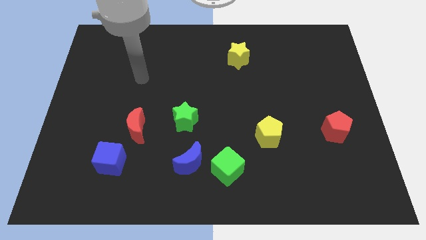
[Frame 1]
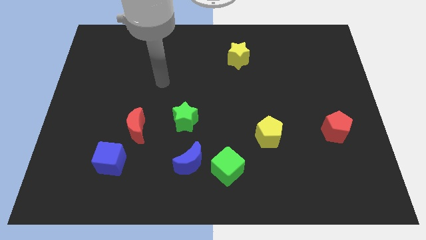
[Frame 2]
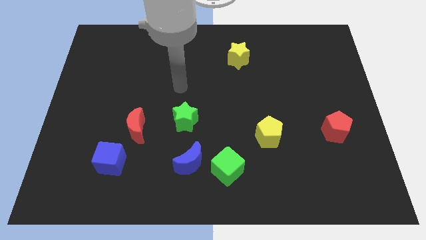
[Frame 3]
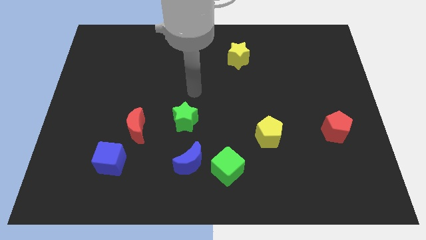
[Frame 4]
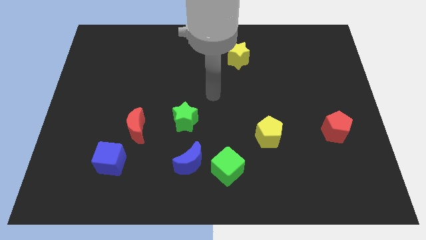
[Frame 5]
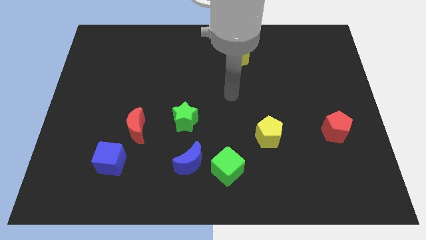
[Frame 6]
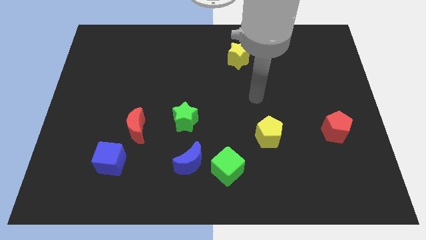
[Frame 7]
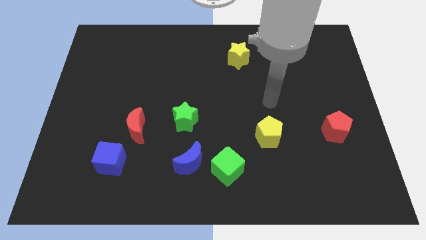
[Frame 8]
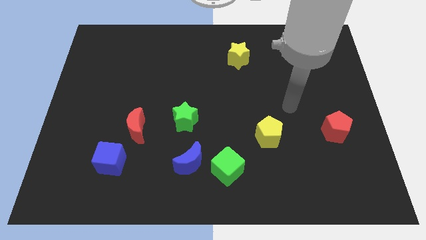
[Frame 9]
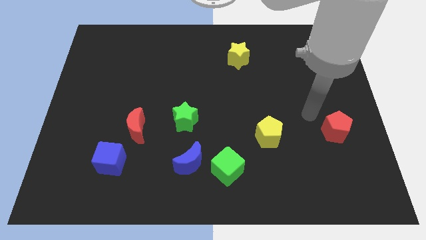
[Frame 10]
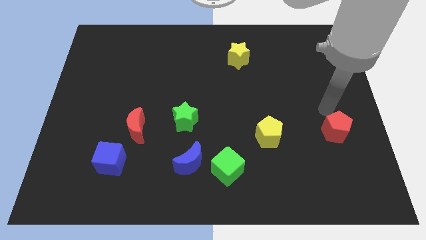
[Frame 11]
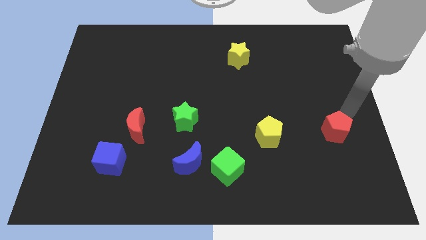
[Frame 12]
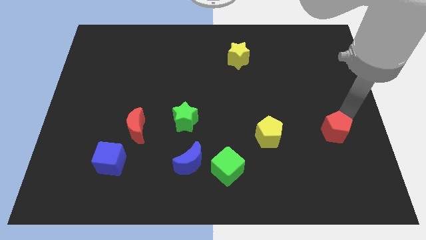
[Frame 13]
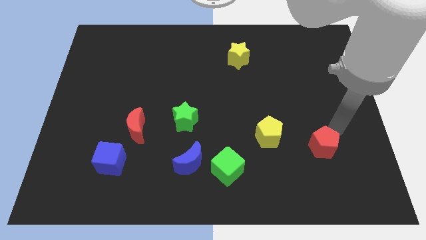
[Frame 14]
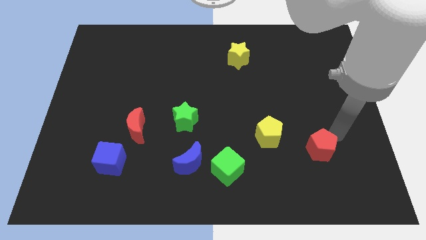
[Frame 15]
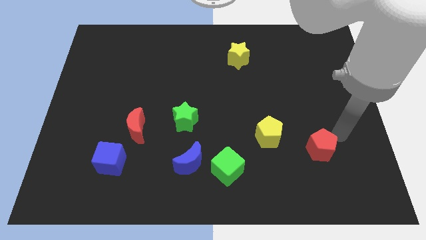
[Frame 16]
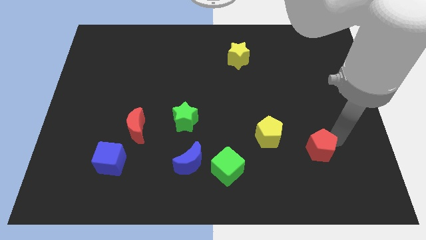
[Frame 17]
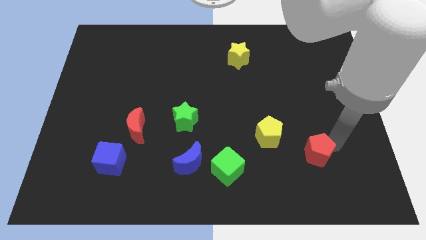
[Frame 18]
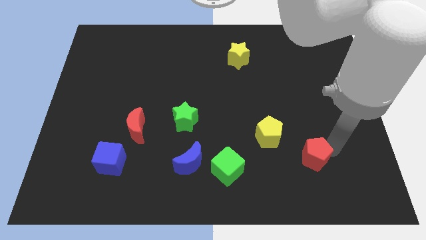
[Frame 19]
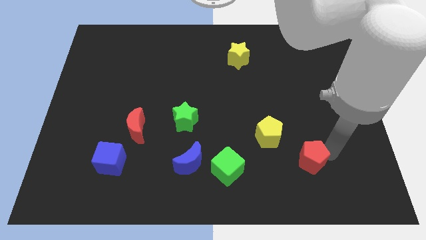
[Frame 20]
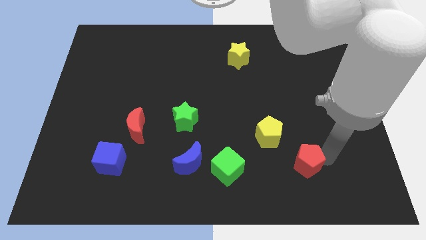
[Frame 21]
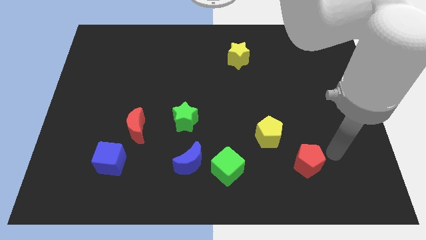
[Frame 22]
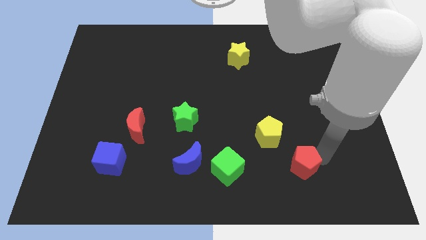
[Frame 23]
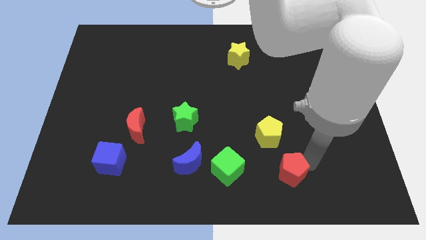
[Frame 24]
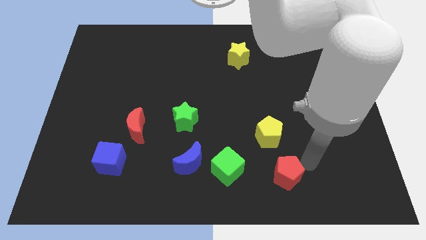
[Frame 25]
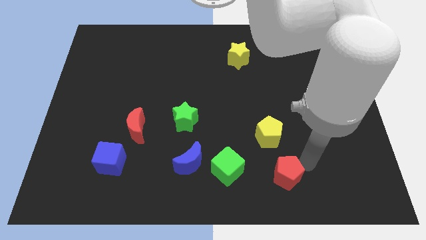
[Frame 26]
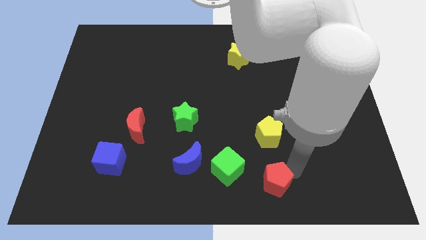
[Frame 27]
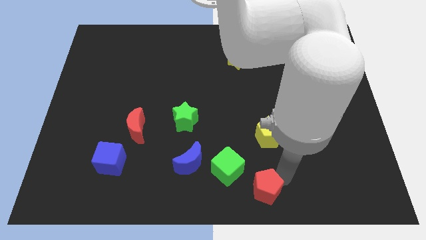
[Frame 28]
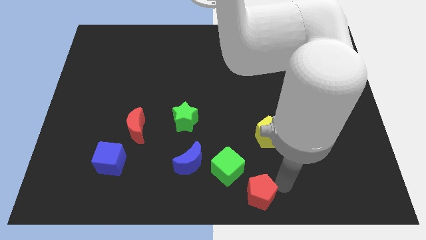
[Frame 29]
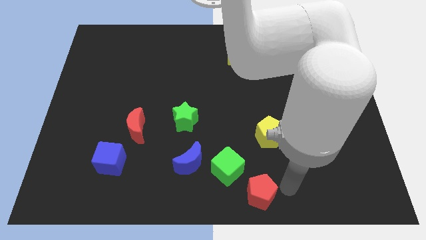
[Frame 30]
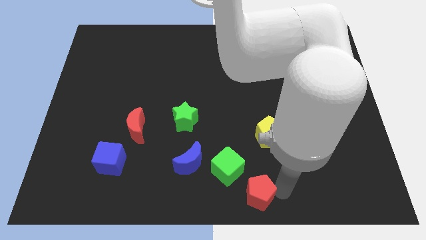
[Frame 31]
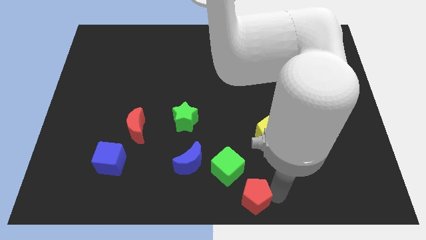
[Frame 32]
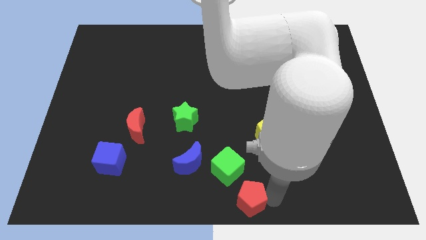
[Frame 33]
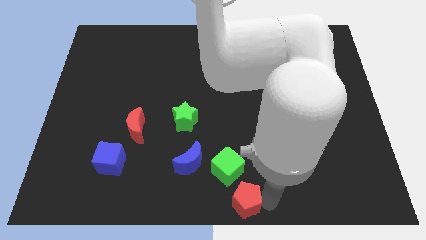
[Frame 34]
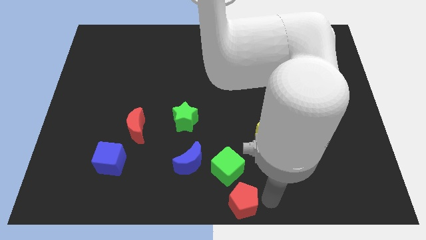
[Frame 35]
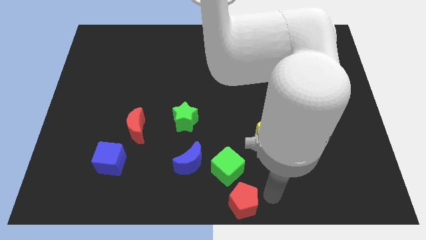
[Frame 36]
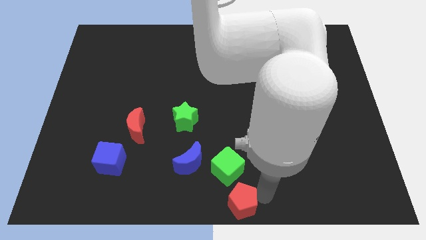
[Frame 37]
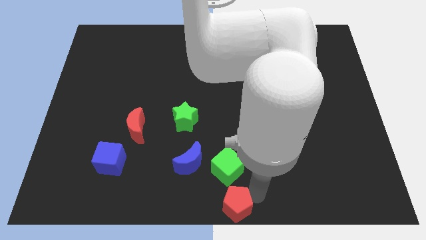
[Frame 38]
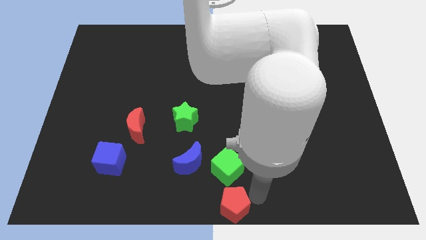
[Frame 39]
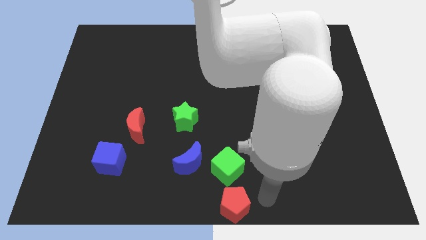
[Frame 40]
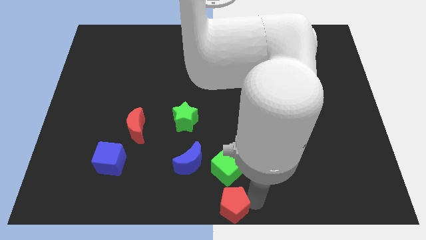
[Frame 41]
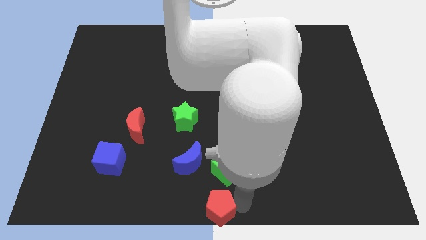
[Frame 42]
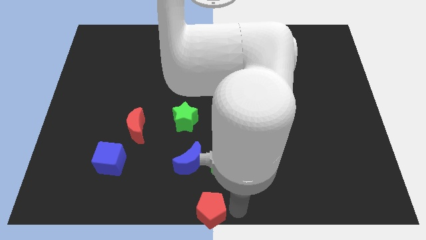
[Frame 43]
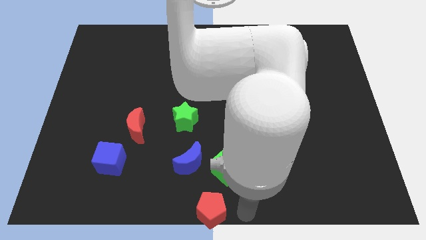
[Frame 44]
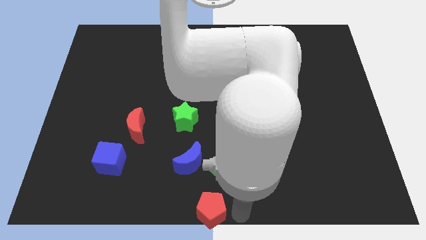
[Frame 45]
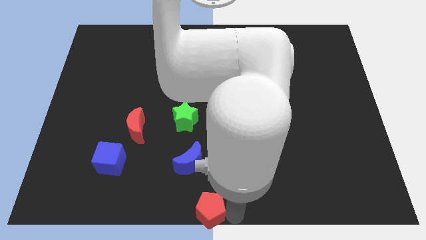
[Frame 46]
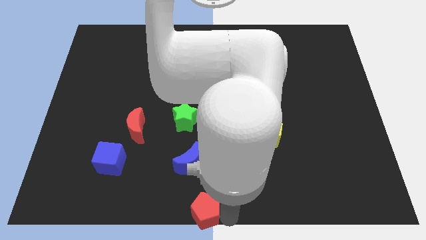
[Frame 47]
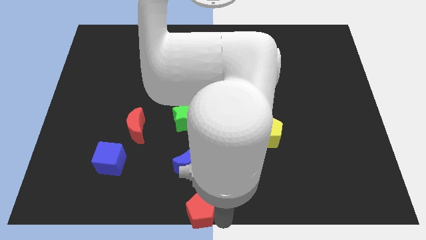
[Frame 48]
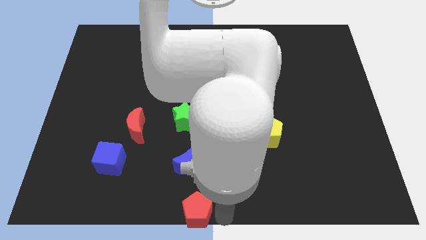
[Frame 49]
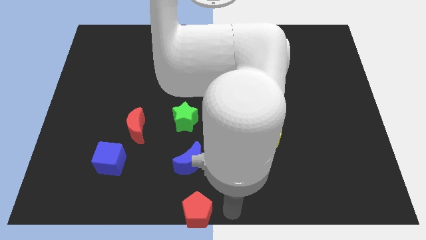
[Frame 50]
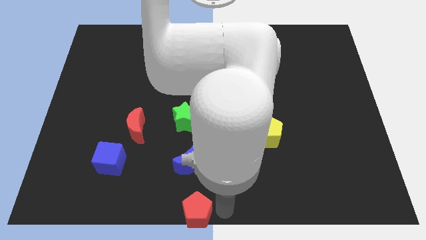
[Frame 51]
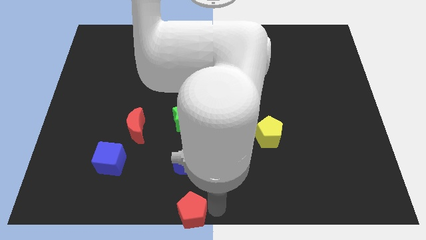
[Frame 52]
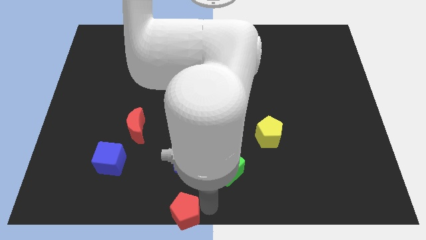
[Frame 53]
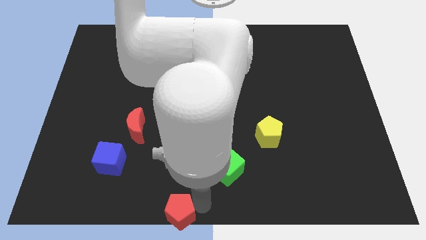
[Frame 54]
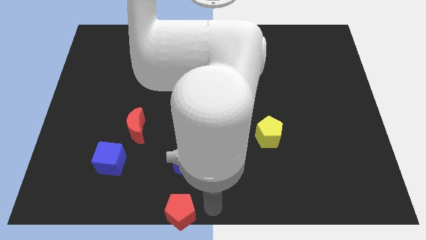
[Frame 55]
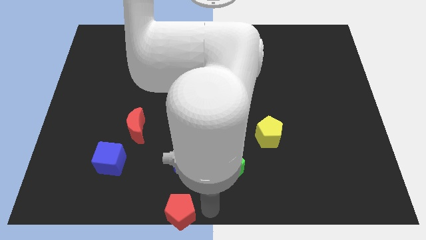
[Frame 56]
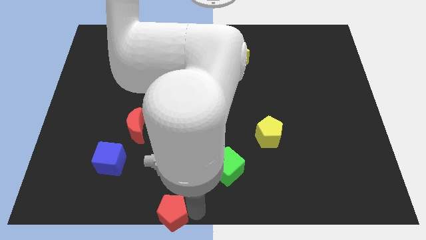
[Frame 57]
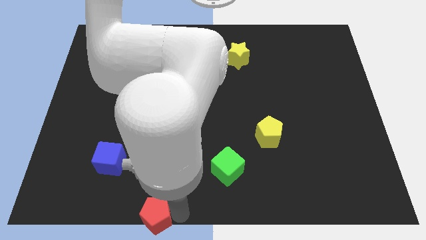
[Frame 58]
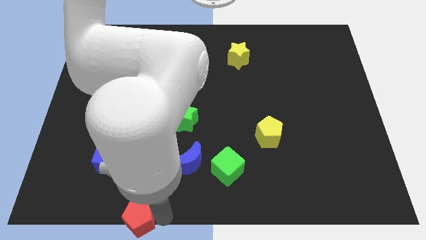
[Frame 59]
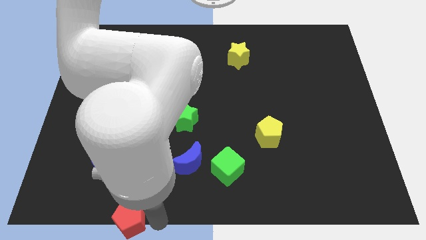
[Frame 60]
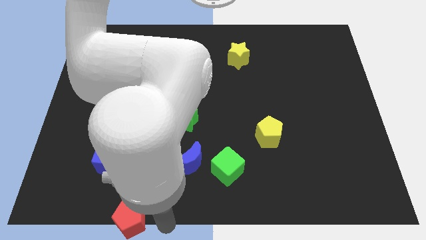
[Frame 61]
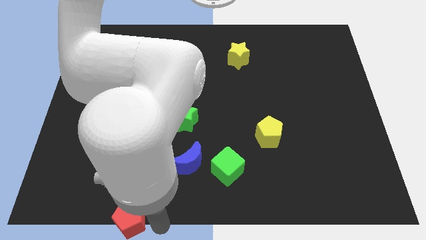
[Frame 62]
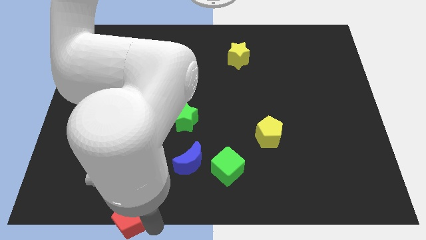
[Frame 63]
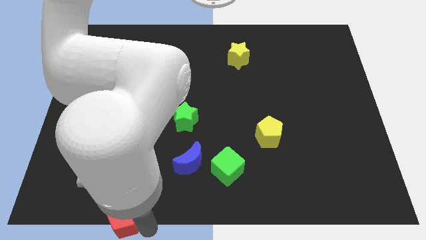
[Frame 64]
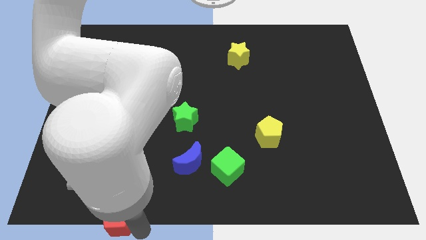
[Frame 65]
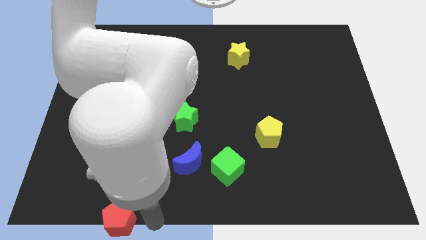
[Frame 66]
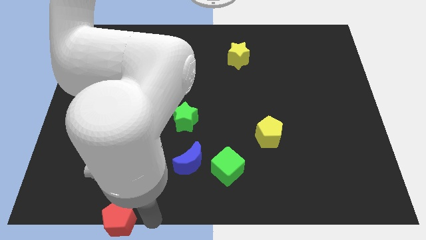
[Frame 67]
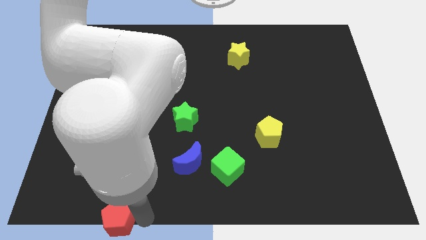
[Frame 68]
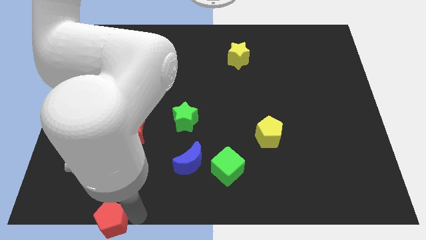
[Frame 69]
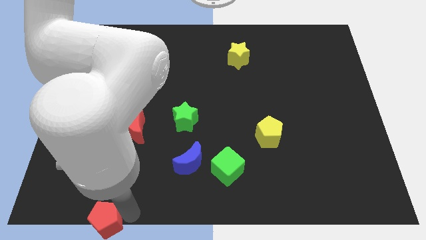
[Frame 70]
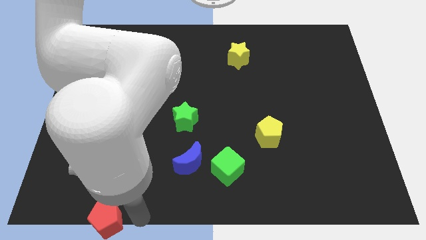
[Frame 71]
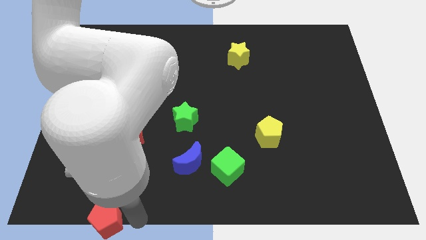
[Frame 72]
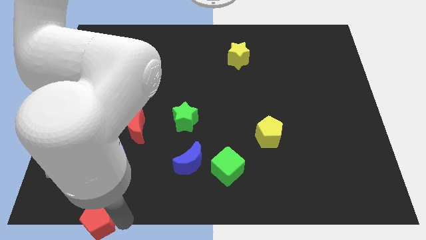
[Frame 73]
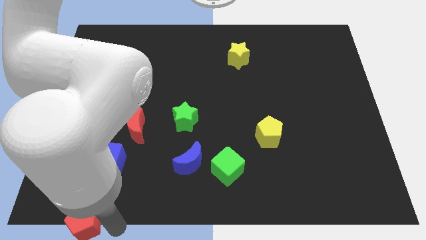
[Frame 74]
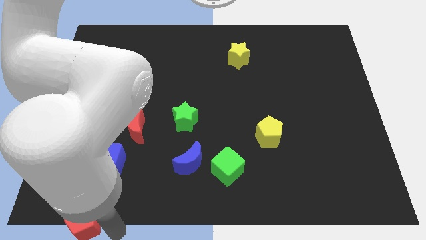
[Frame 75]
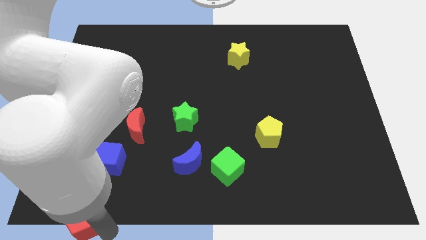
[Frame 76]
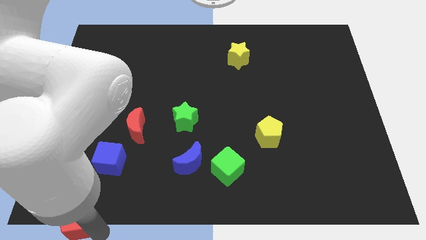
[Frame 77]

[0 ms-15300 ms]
move the red pentagon to the bottom left

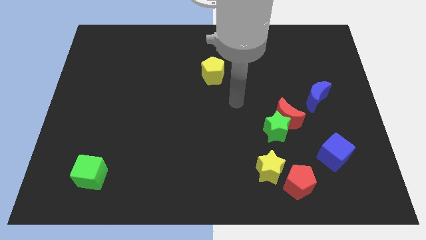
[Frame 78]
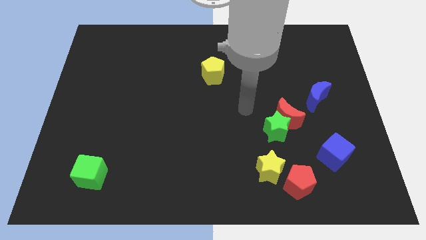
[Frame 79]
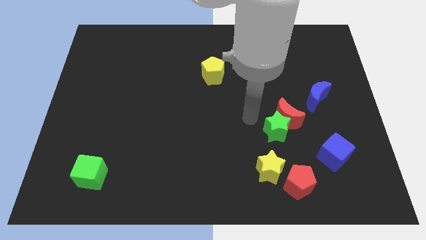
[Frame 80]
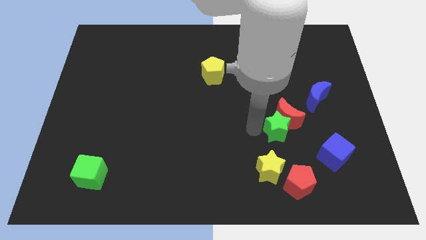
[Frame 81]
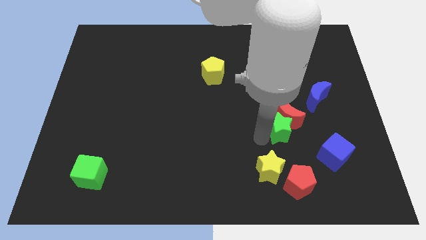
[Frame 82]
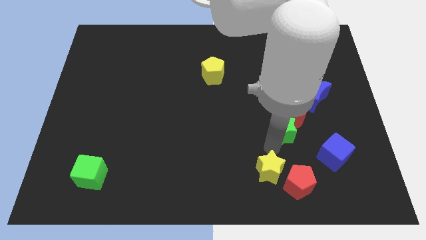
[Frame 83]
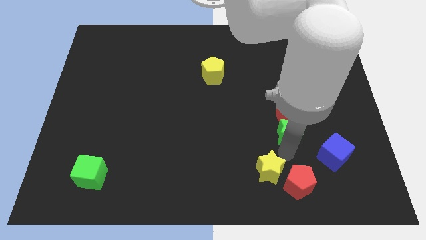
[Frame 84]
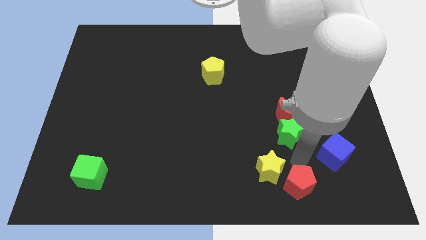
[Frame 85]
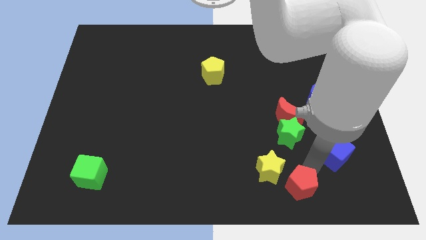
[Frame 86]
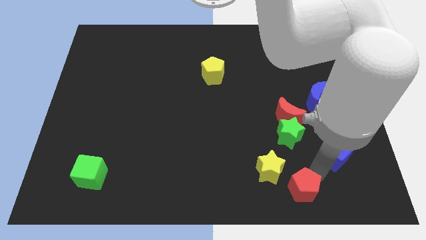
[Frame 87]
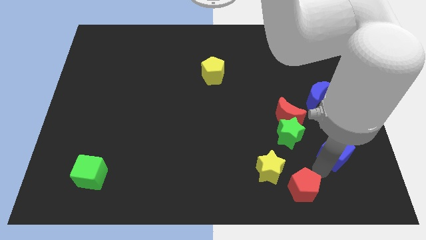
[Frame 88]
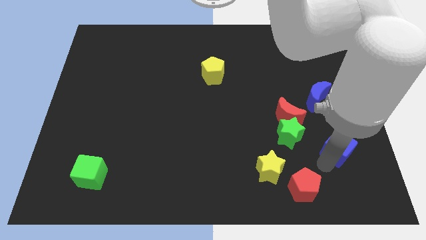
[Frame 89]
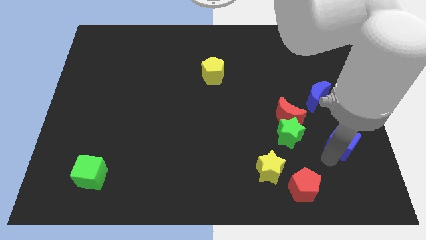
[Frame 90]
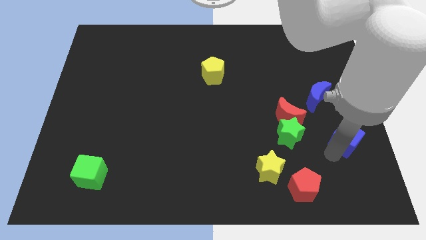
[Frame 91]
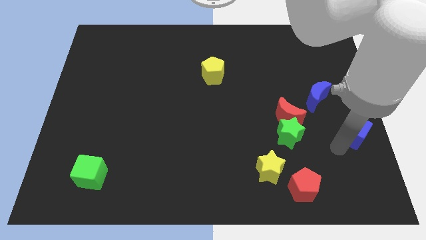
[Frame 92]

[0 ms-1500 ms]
push the blue cube to the center right
